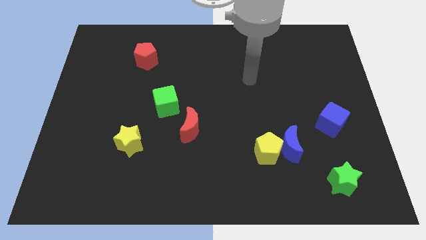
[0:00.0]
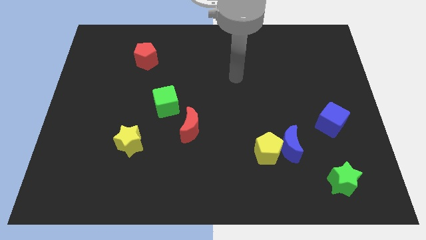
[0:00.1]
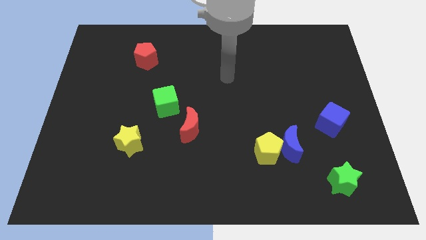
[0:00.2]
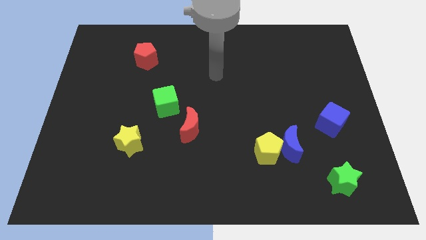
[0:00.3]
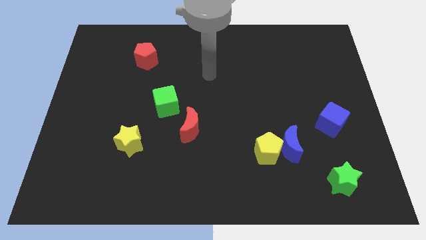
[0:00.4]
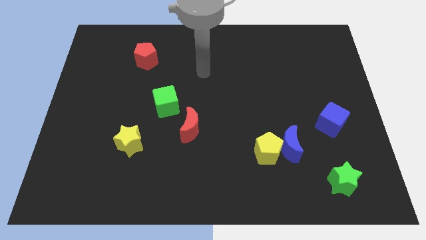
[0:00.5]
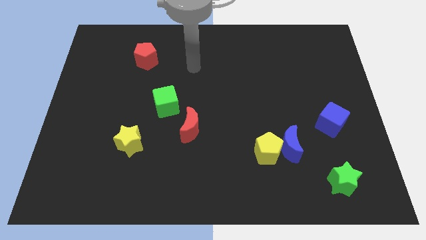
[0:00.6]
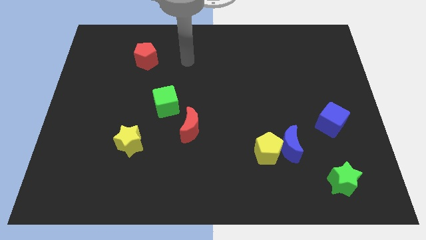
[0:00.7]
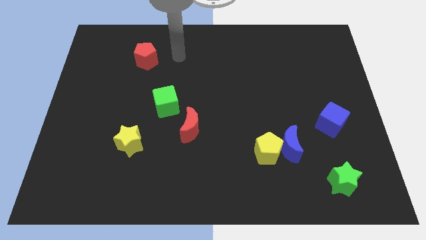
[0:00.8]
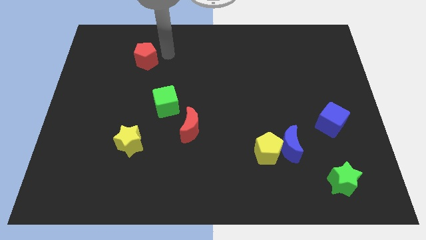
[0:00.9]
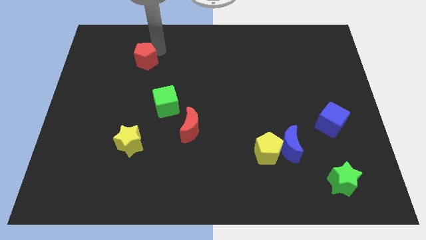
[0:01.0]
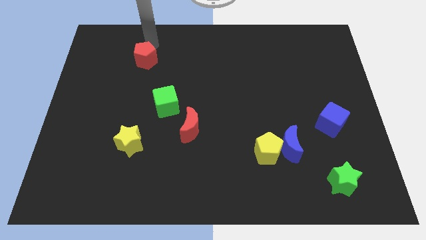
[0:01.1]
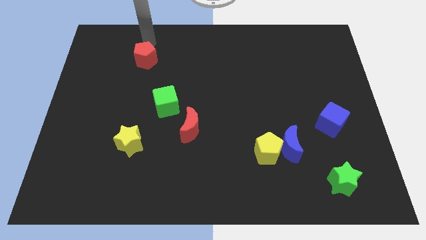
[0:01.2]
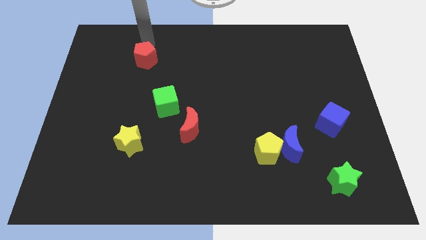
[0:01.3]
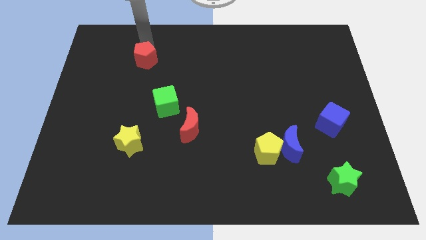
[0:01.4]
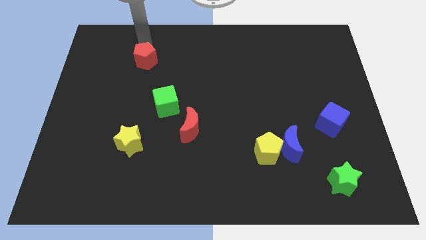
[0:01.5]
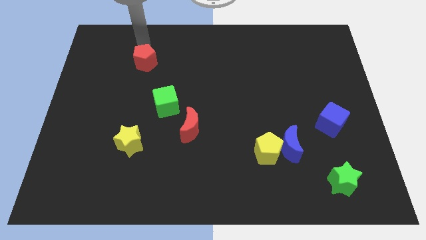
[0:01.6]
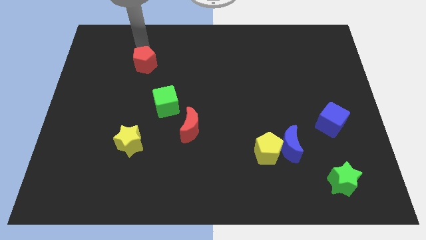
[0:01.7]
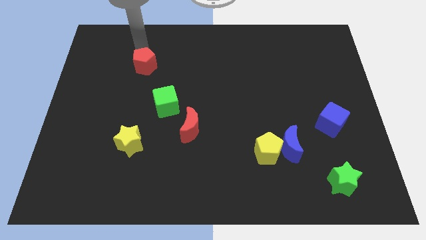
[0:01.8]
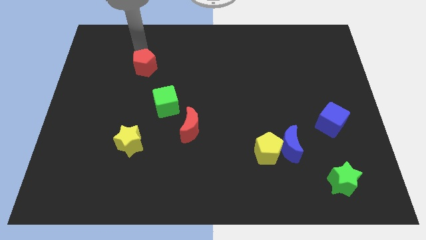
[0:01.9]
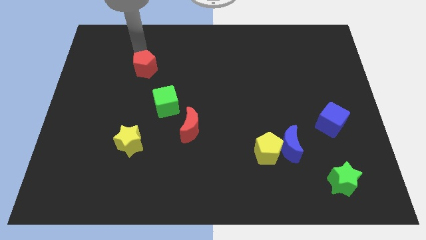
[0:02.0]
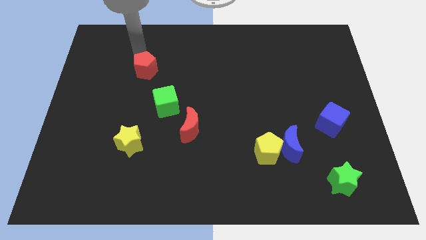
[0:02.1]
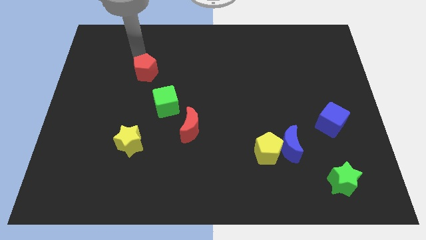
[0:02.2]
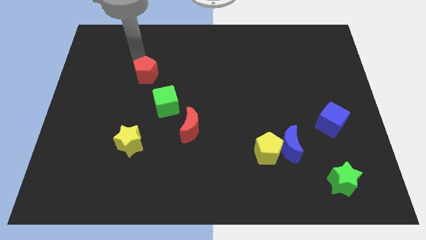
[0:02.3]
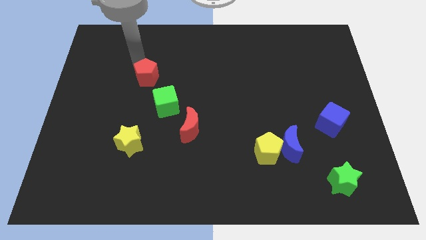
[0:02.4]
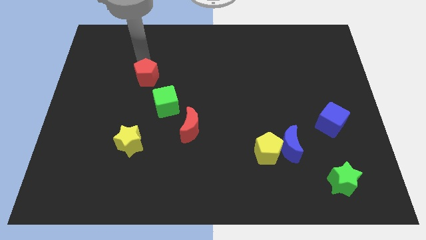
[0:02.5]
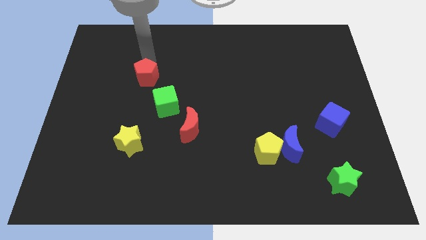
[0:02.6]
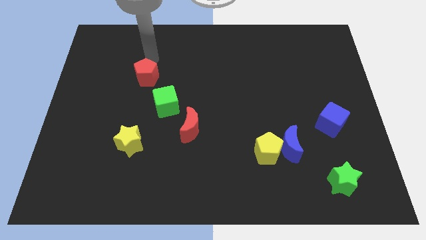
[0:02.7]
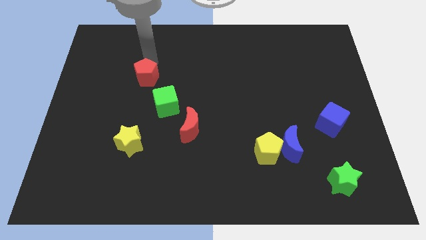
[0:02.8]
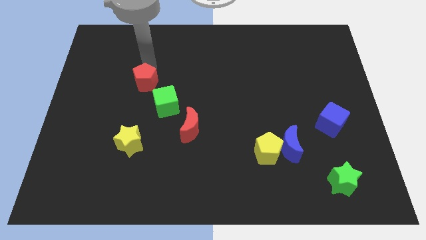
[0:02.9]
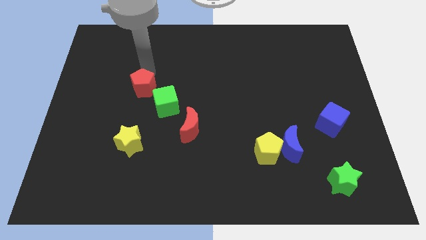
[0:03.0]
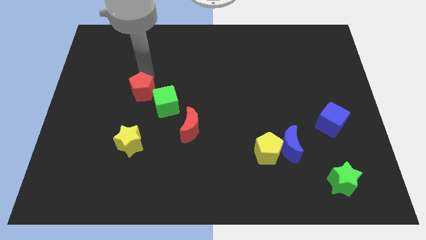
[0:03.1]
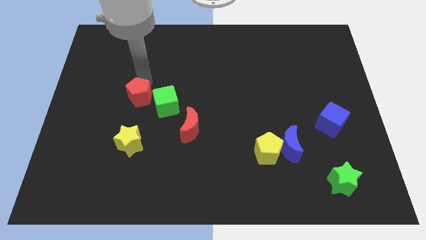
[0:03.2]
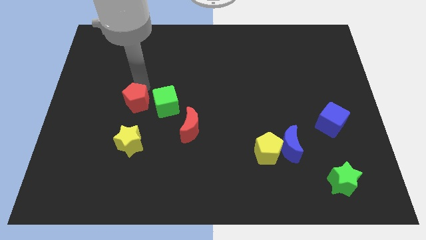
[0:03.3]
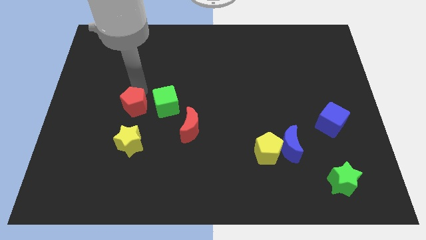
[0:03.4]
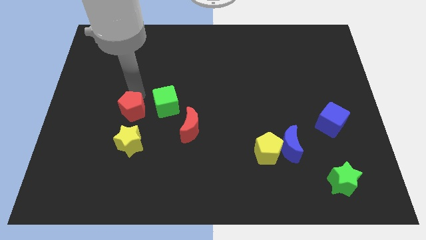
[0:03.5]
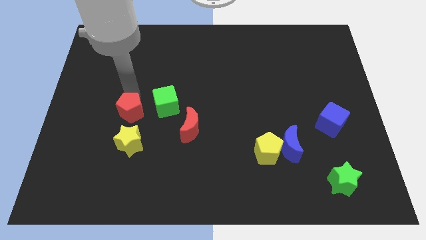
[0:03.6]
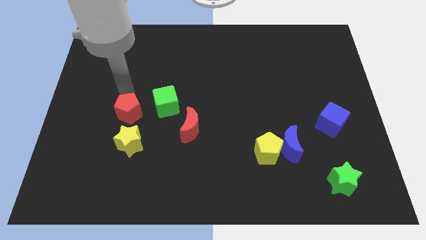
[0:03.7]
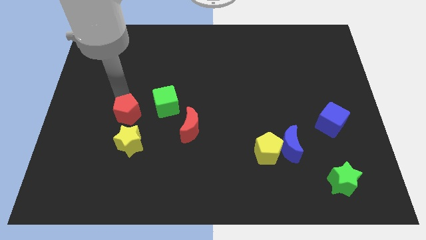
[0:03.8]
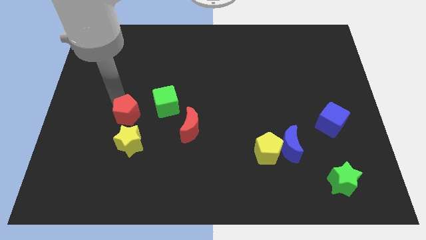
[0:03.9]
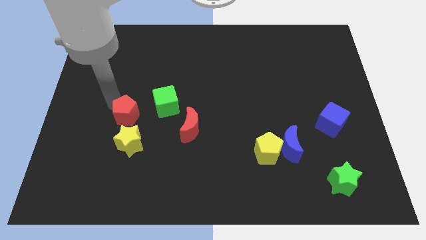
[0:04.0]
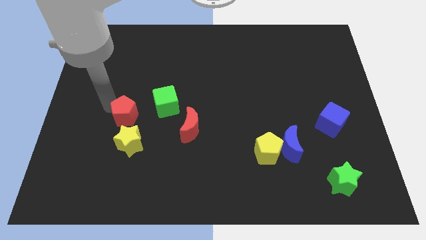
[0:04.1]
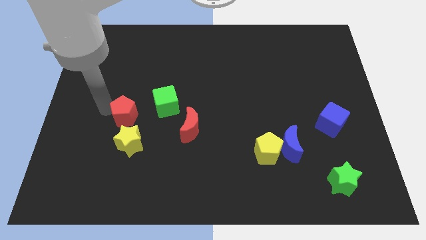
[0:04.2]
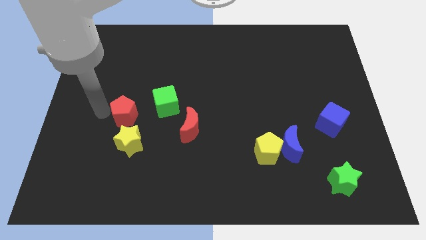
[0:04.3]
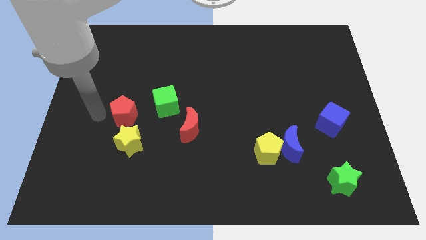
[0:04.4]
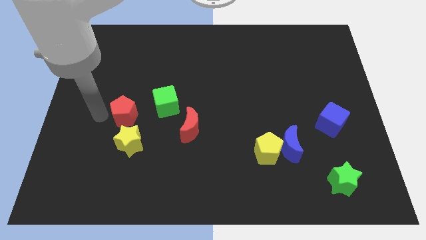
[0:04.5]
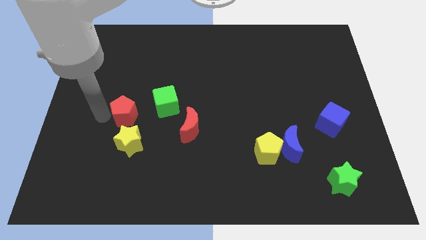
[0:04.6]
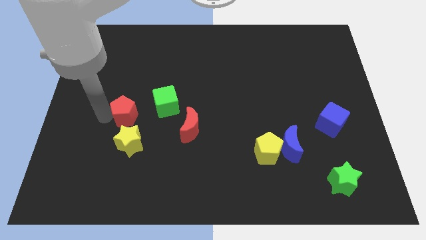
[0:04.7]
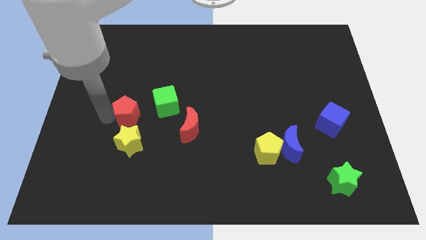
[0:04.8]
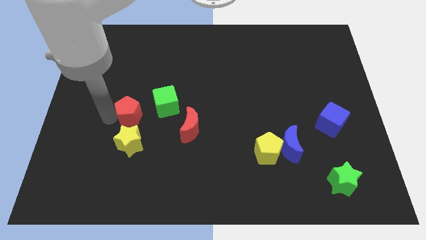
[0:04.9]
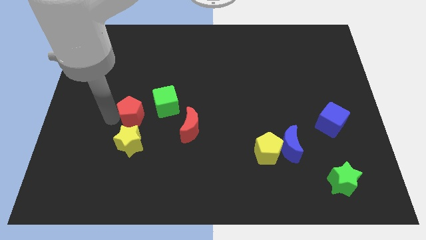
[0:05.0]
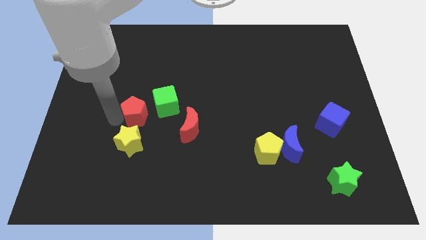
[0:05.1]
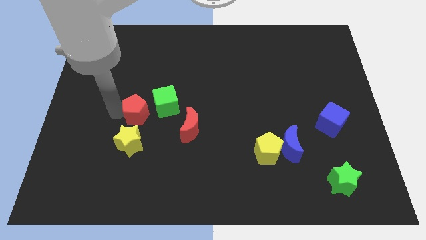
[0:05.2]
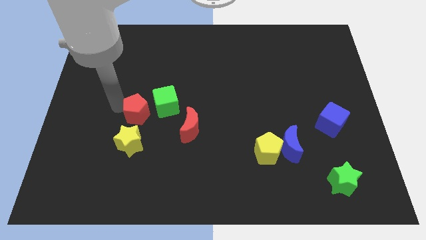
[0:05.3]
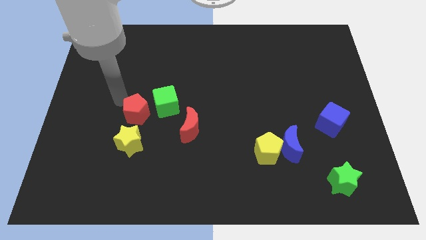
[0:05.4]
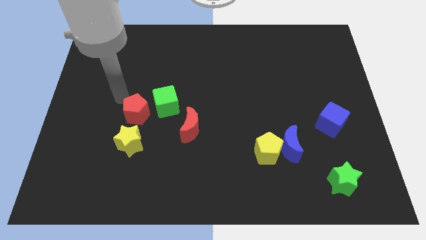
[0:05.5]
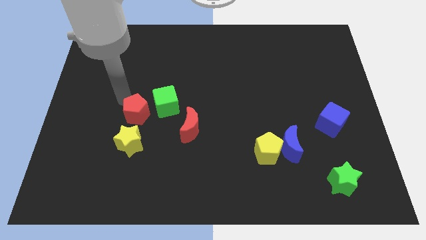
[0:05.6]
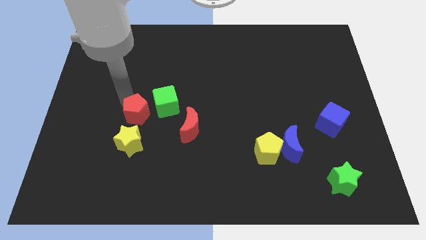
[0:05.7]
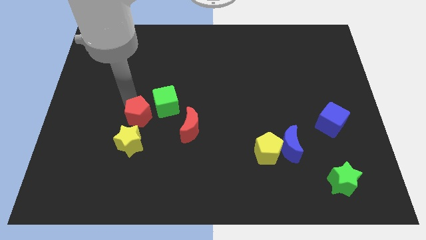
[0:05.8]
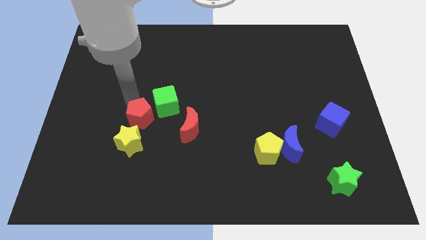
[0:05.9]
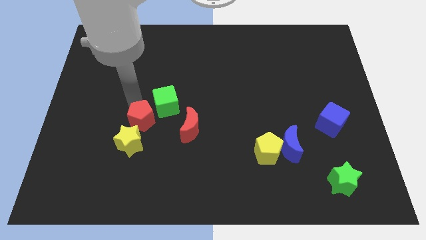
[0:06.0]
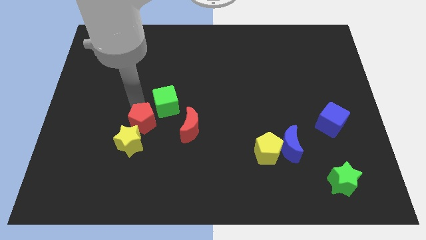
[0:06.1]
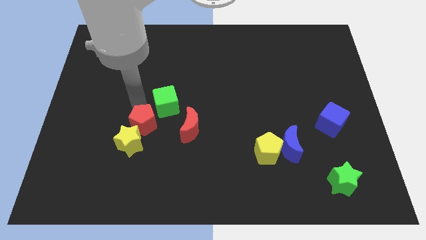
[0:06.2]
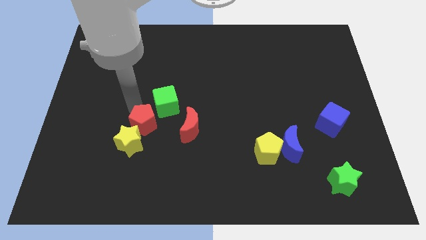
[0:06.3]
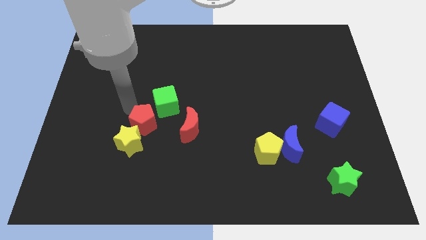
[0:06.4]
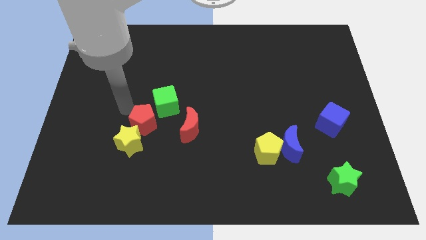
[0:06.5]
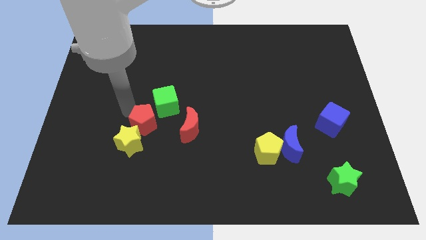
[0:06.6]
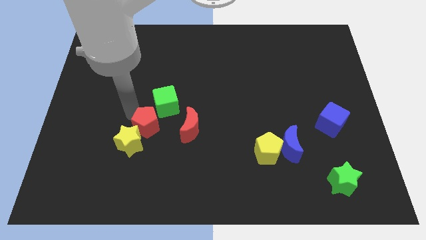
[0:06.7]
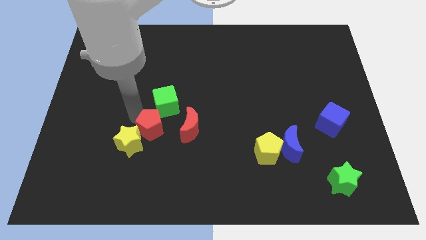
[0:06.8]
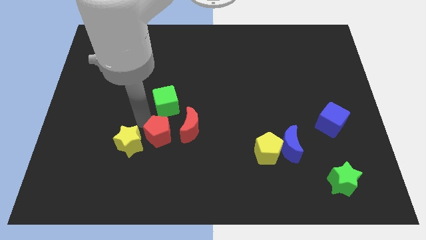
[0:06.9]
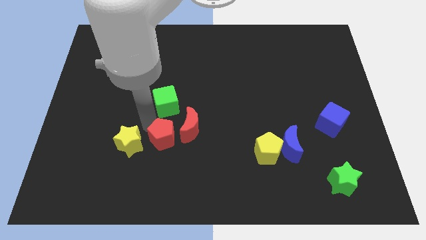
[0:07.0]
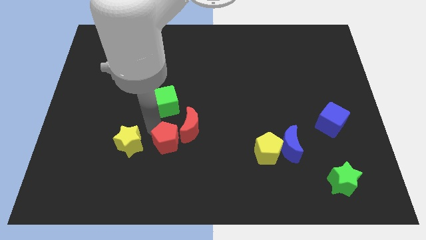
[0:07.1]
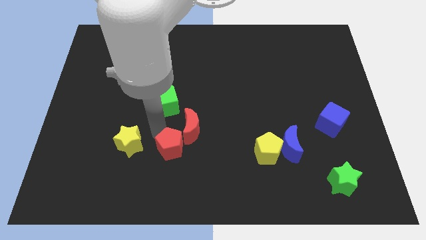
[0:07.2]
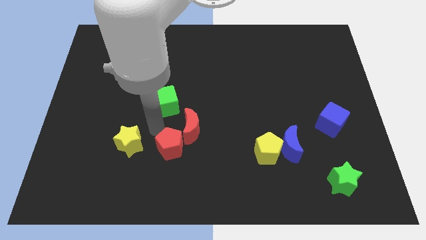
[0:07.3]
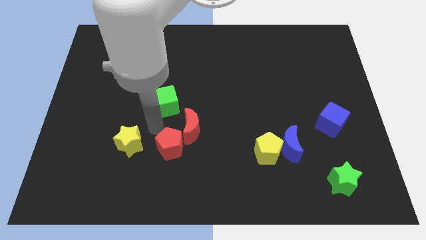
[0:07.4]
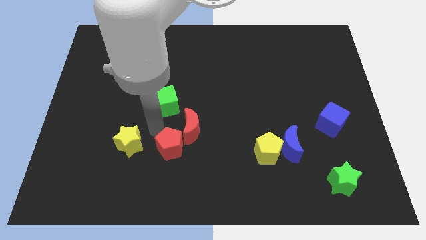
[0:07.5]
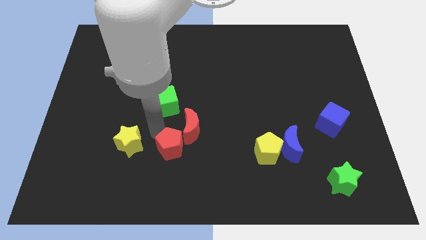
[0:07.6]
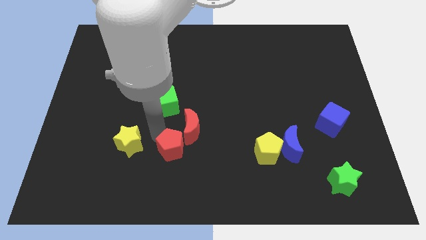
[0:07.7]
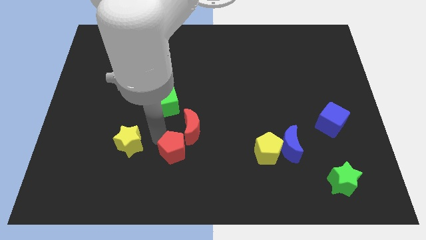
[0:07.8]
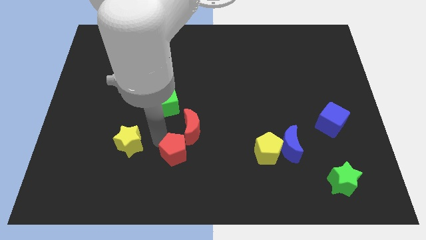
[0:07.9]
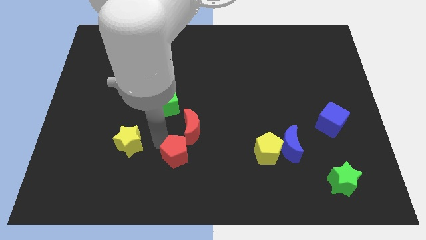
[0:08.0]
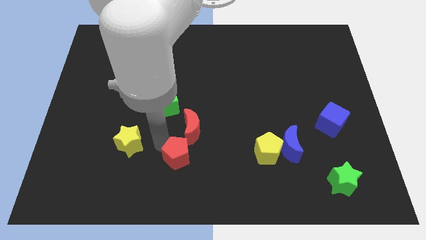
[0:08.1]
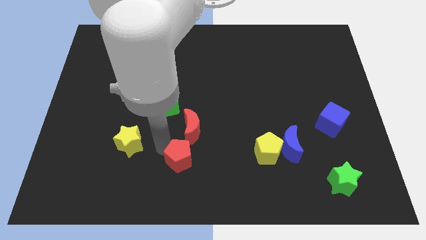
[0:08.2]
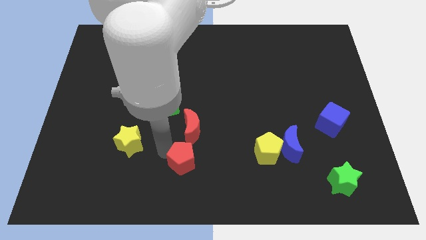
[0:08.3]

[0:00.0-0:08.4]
move the red pentagon to the bottom side
